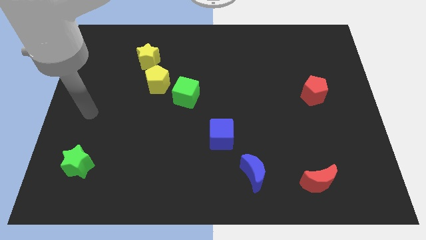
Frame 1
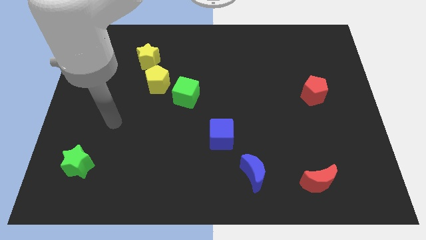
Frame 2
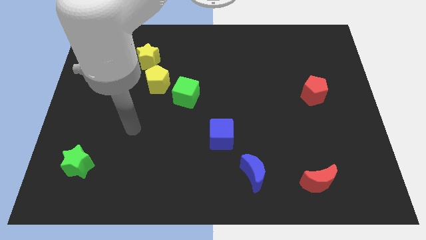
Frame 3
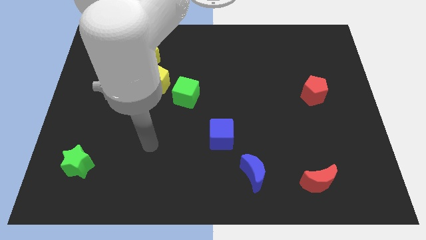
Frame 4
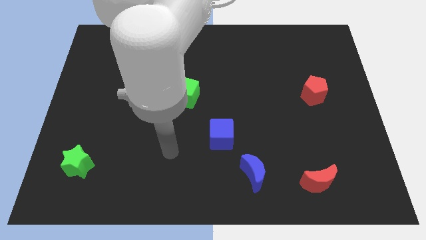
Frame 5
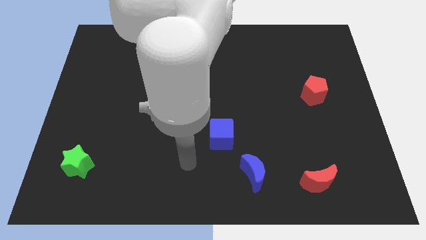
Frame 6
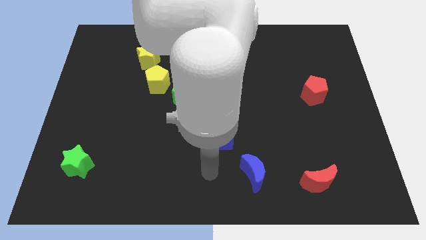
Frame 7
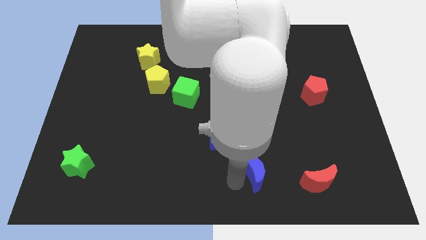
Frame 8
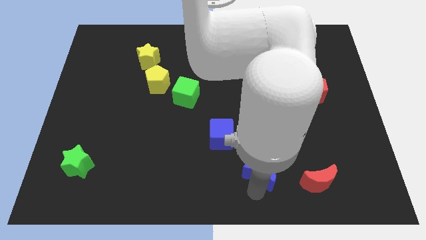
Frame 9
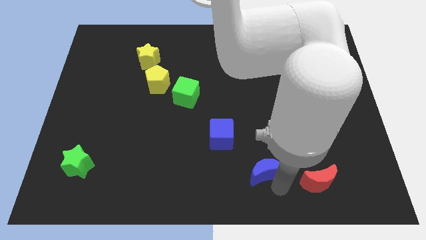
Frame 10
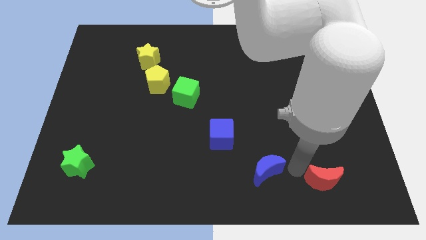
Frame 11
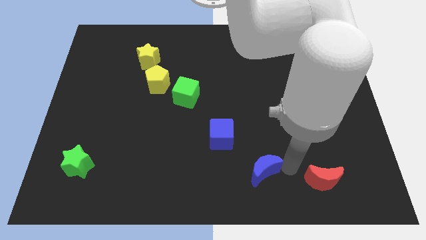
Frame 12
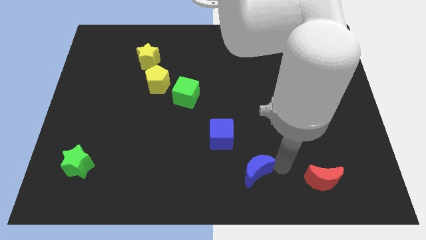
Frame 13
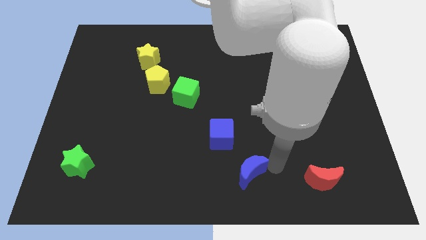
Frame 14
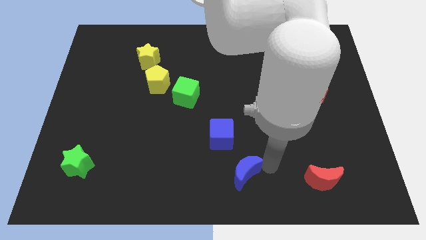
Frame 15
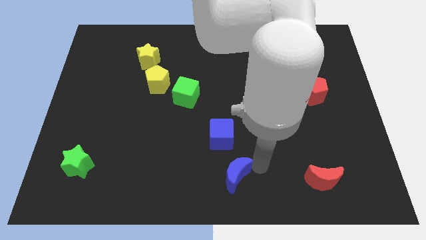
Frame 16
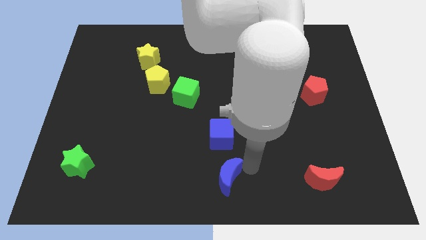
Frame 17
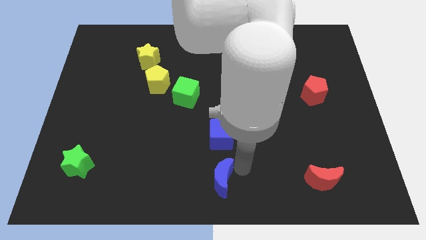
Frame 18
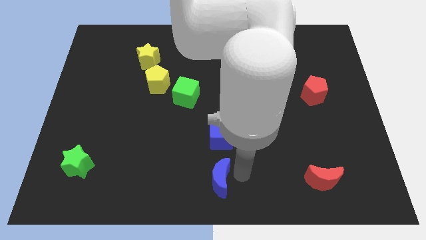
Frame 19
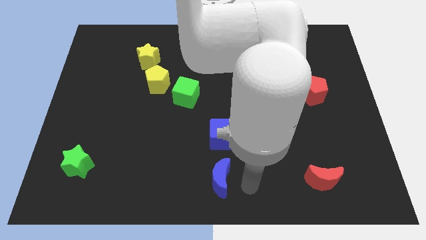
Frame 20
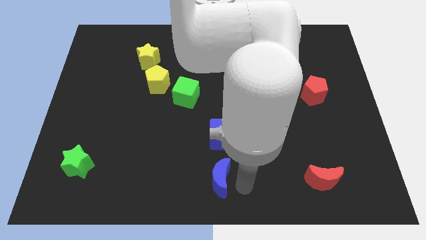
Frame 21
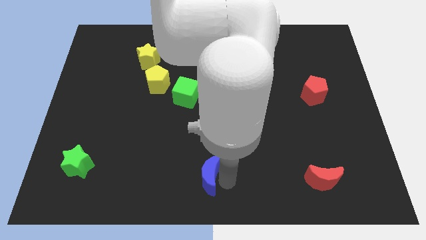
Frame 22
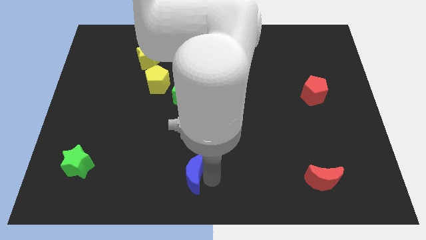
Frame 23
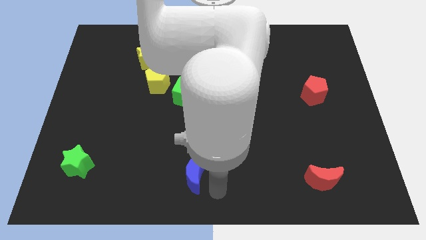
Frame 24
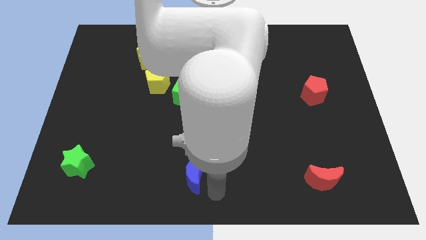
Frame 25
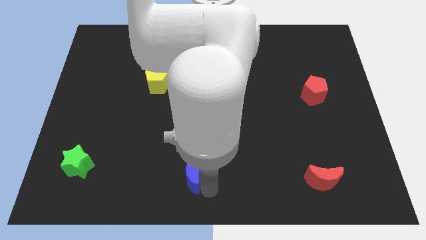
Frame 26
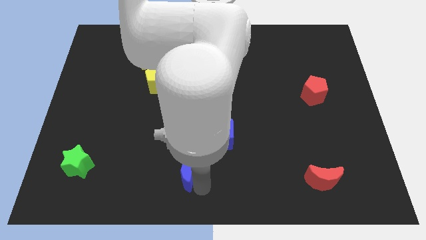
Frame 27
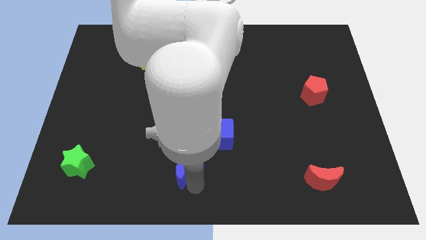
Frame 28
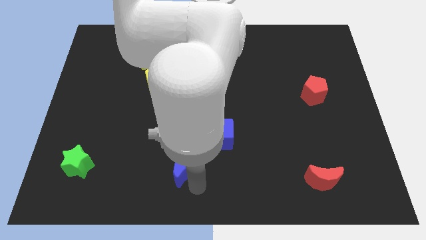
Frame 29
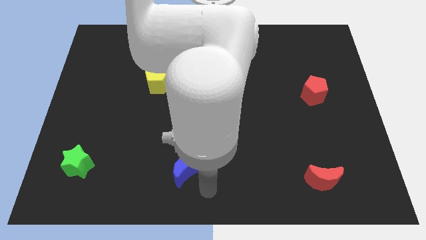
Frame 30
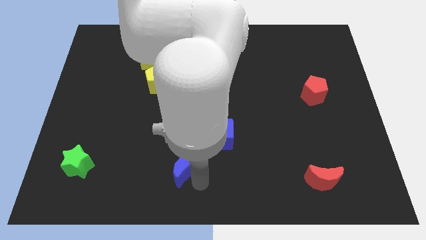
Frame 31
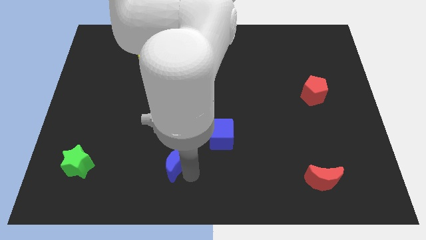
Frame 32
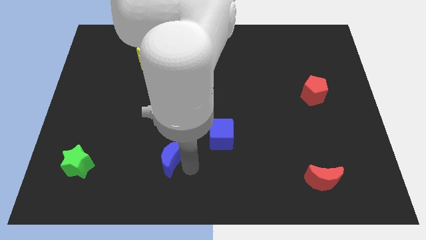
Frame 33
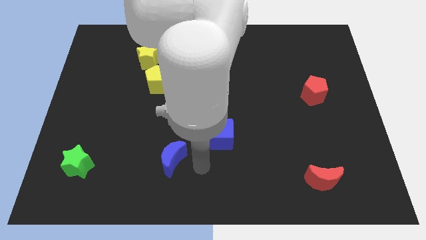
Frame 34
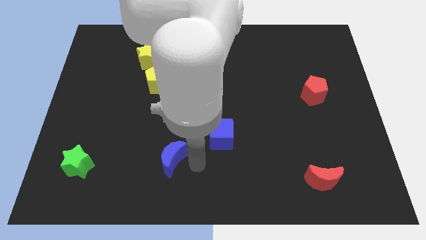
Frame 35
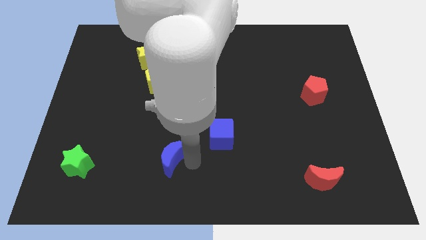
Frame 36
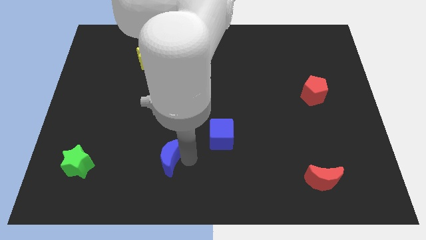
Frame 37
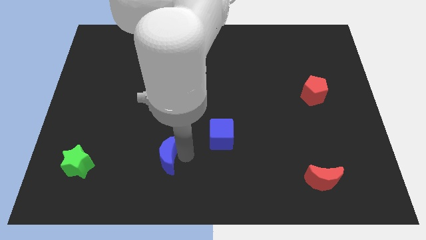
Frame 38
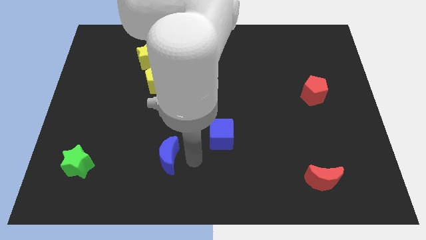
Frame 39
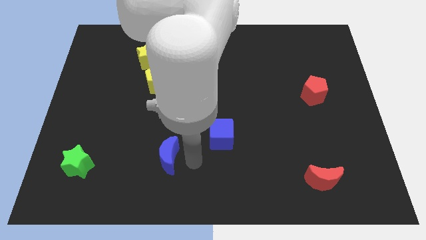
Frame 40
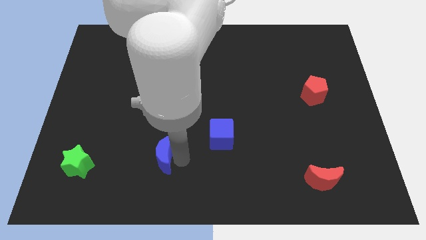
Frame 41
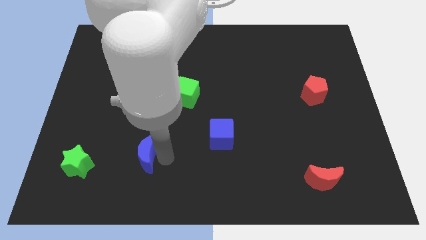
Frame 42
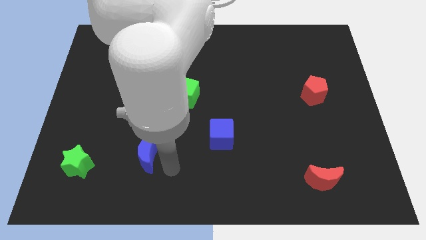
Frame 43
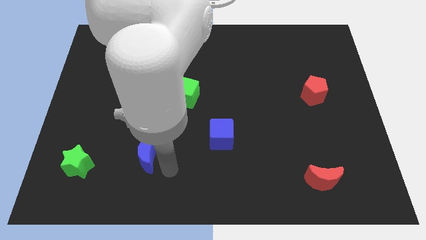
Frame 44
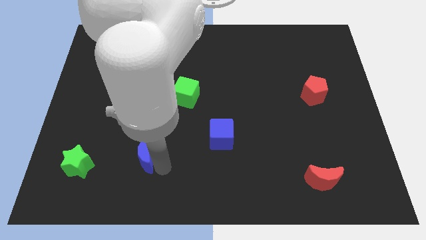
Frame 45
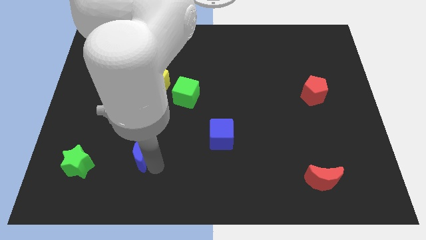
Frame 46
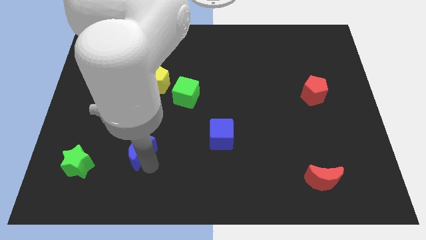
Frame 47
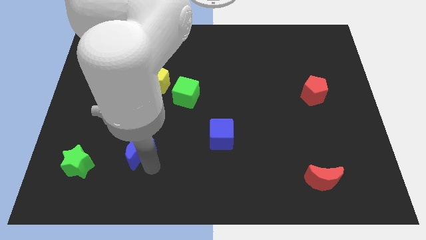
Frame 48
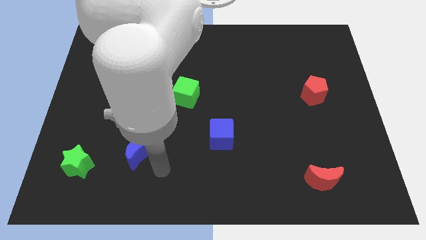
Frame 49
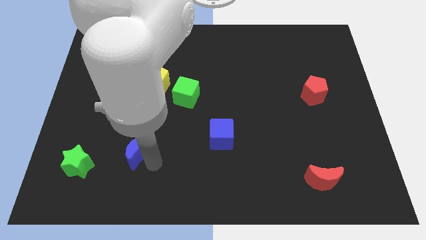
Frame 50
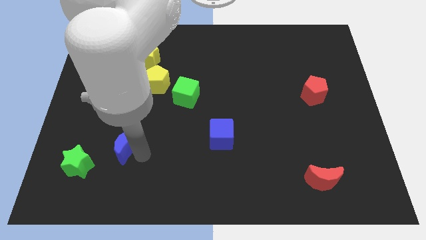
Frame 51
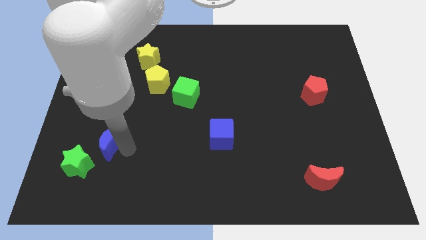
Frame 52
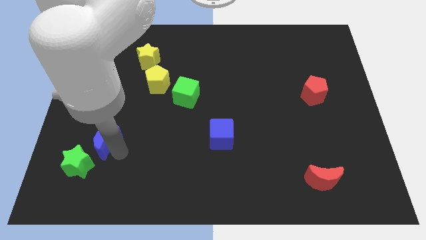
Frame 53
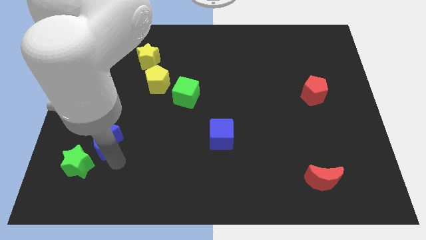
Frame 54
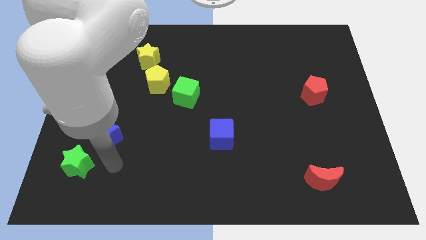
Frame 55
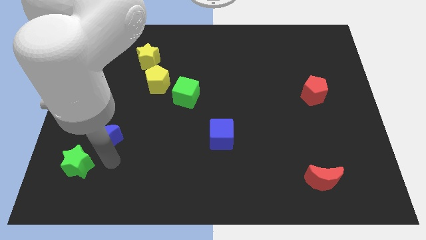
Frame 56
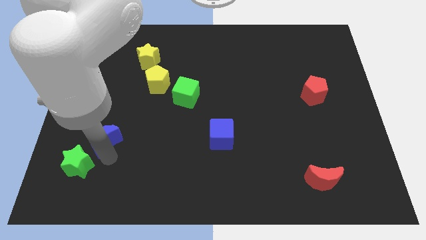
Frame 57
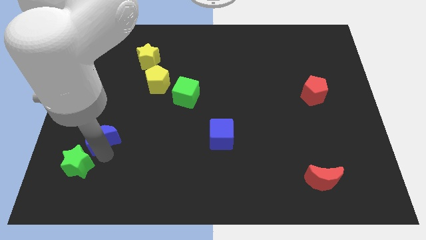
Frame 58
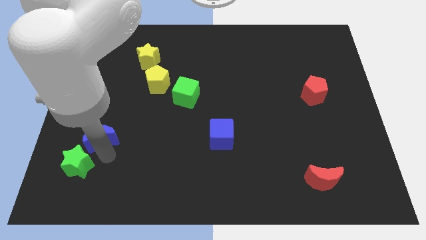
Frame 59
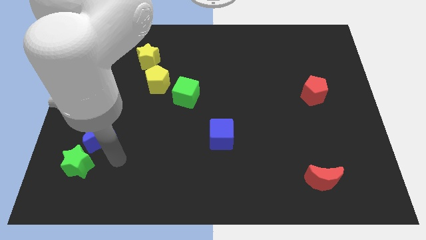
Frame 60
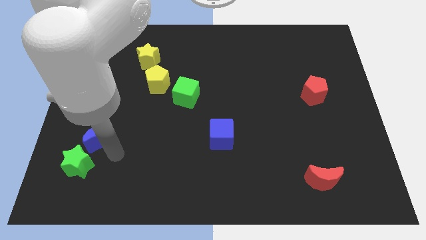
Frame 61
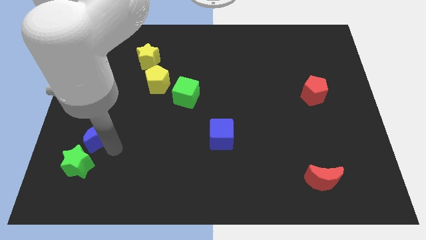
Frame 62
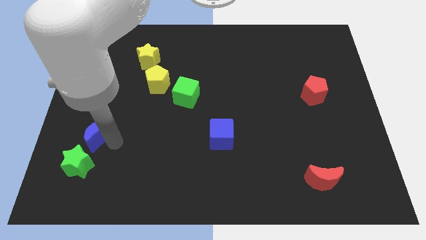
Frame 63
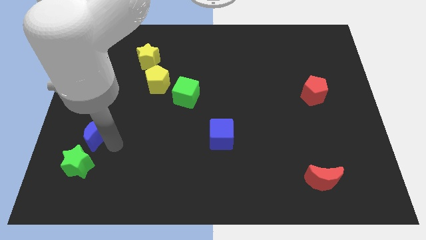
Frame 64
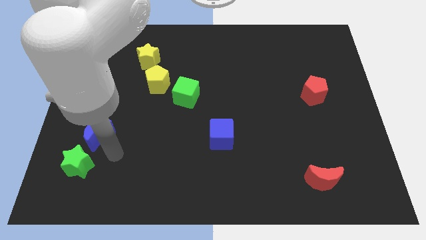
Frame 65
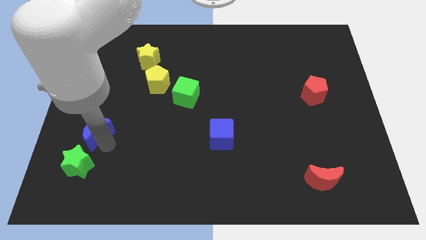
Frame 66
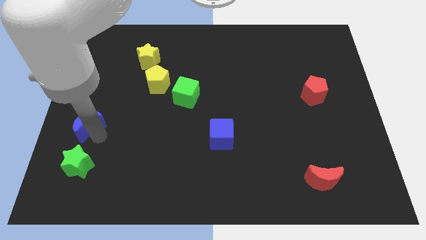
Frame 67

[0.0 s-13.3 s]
put the blue moon to the center left
